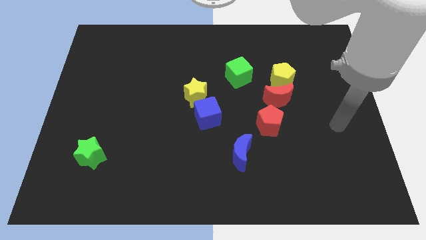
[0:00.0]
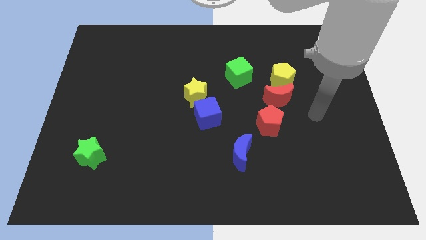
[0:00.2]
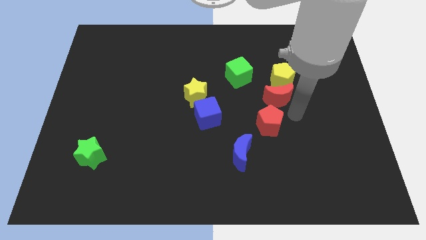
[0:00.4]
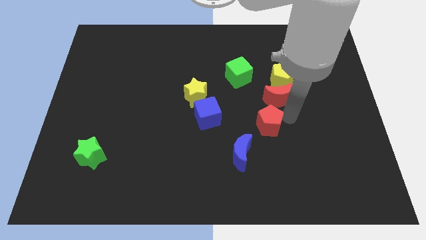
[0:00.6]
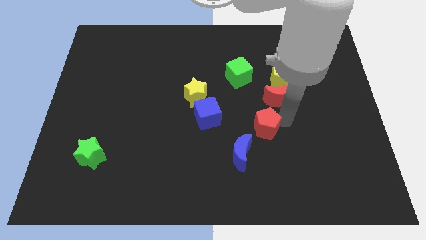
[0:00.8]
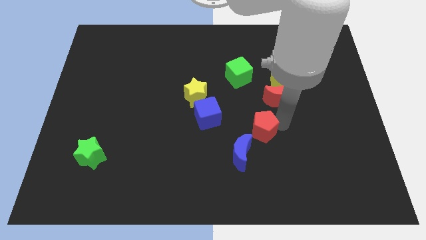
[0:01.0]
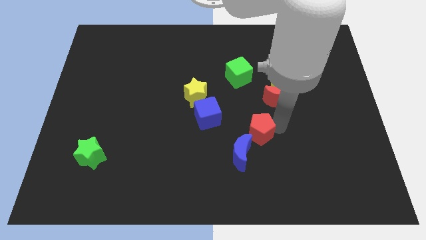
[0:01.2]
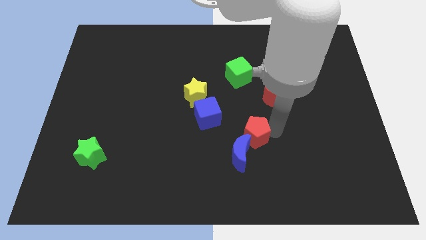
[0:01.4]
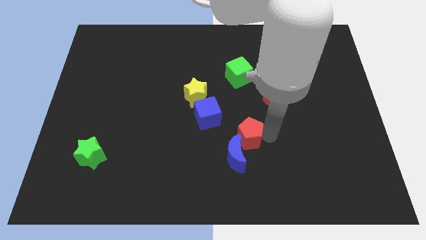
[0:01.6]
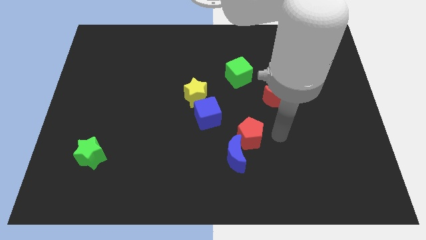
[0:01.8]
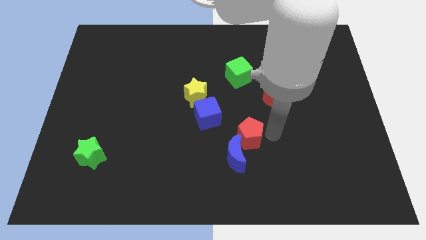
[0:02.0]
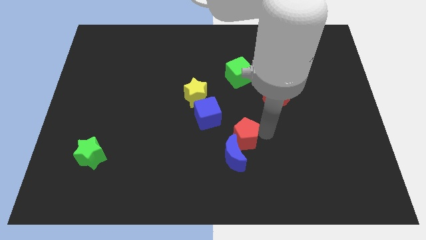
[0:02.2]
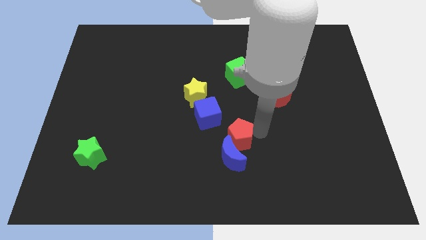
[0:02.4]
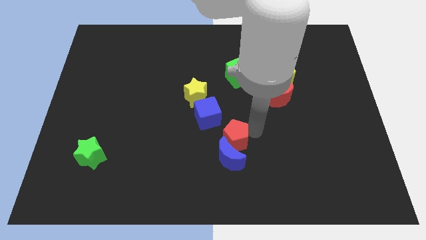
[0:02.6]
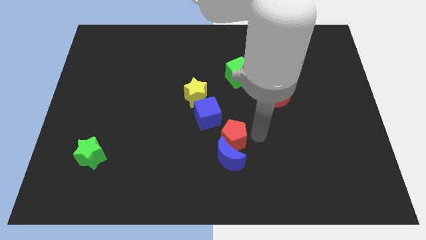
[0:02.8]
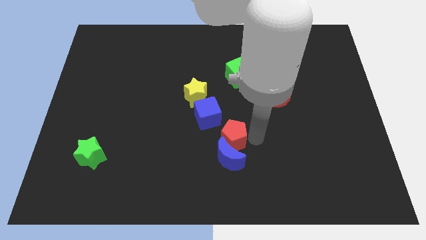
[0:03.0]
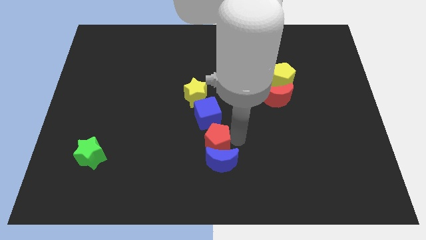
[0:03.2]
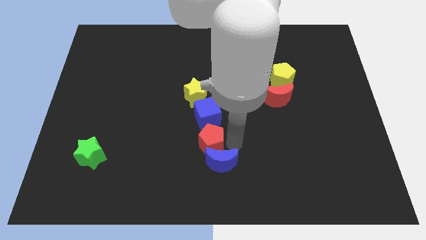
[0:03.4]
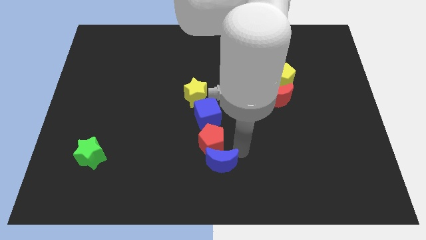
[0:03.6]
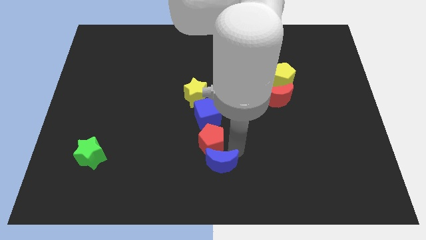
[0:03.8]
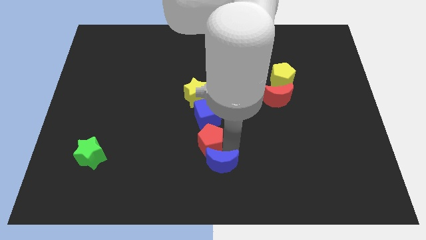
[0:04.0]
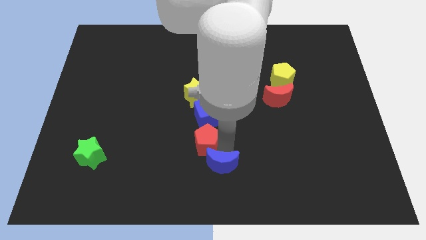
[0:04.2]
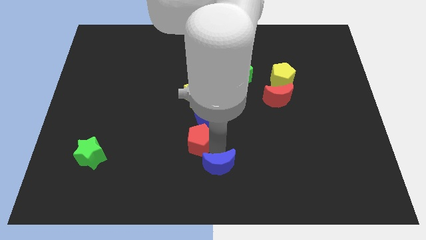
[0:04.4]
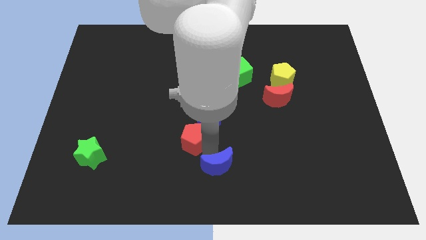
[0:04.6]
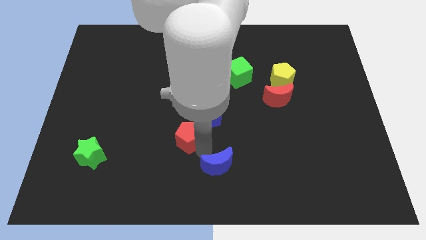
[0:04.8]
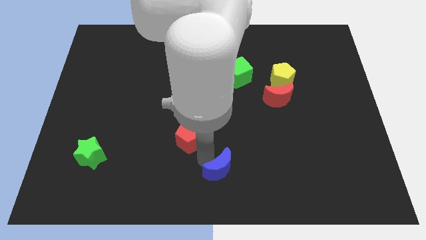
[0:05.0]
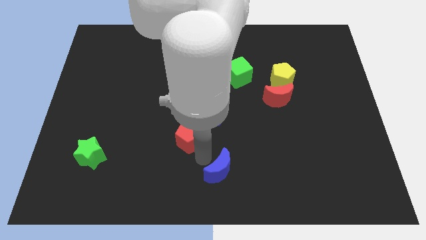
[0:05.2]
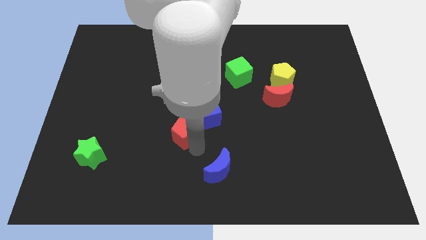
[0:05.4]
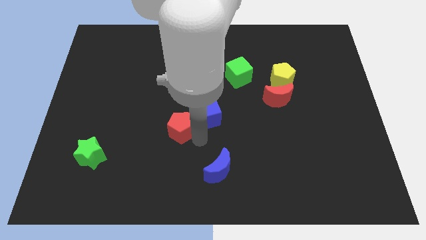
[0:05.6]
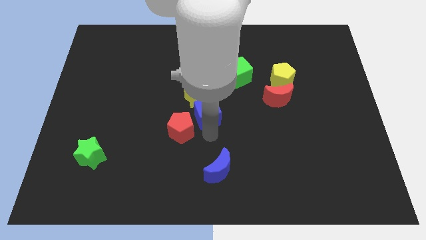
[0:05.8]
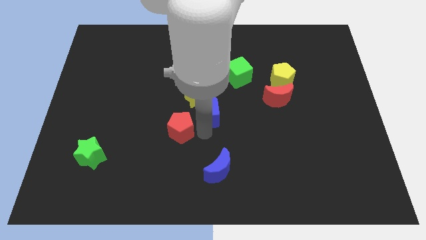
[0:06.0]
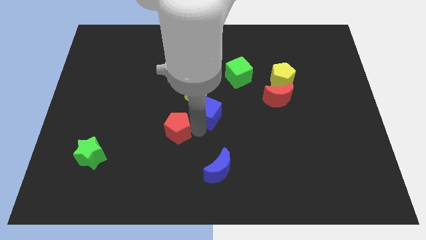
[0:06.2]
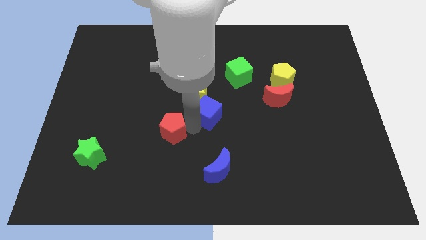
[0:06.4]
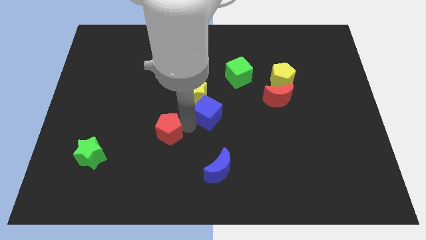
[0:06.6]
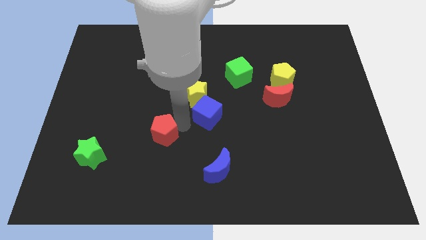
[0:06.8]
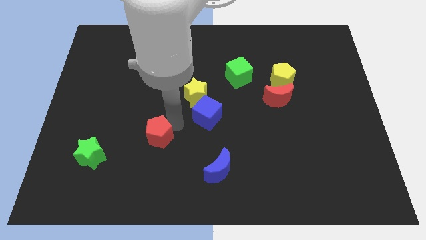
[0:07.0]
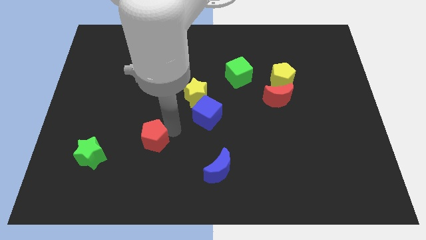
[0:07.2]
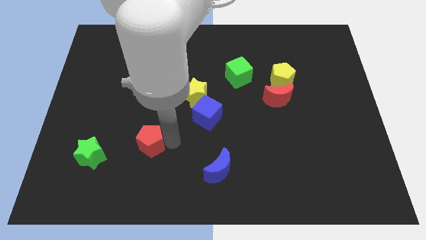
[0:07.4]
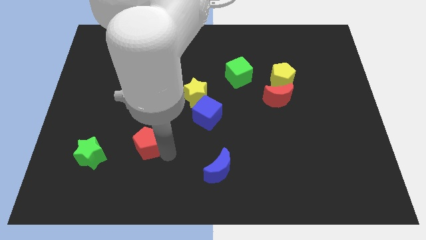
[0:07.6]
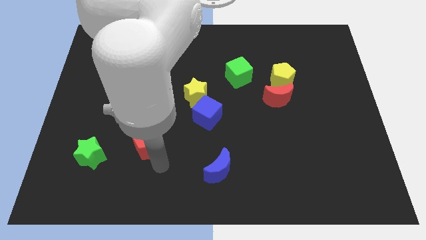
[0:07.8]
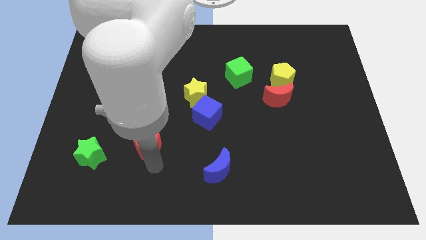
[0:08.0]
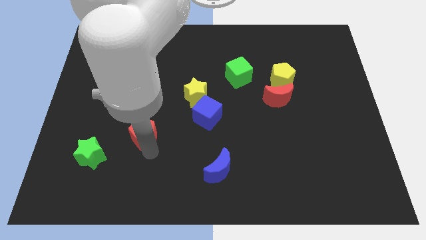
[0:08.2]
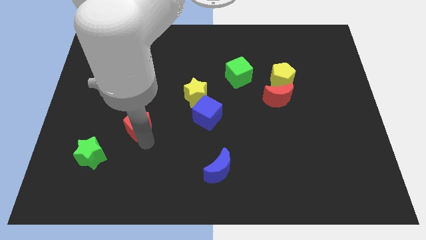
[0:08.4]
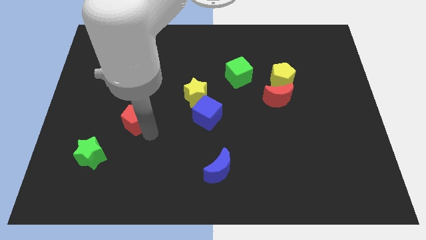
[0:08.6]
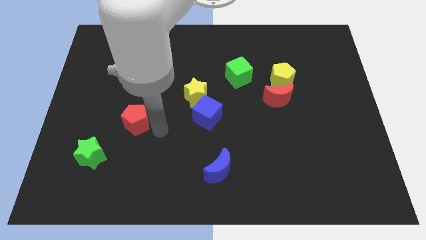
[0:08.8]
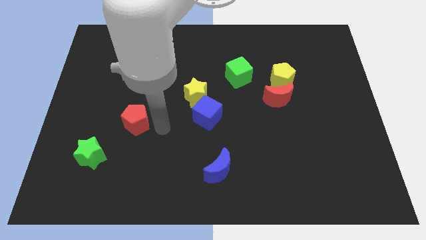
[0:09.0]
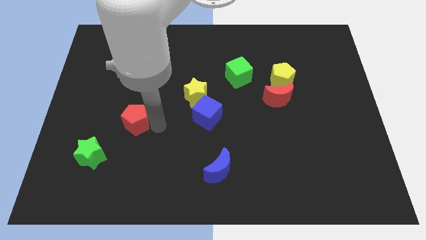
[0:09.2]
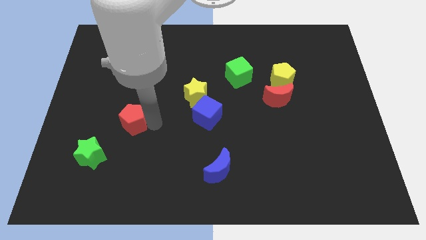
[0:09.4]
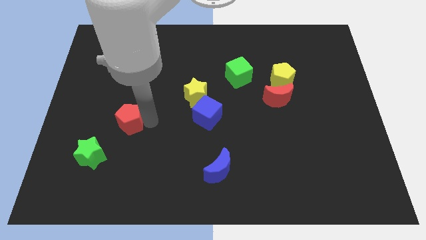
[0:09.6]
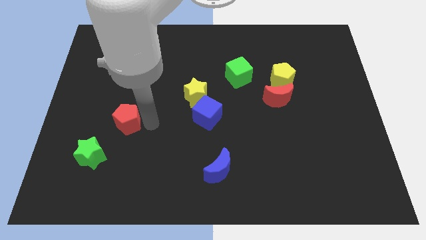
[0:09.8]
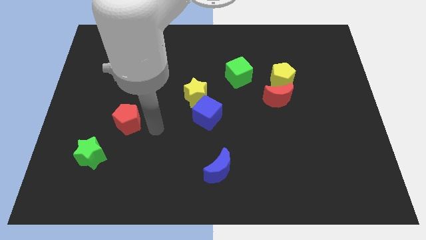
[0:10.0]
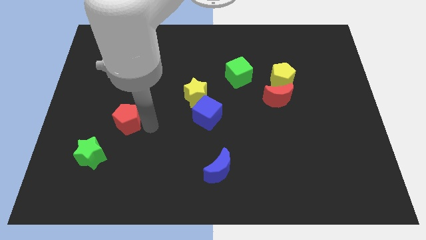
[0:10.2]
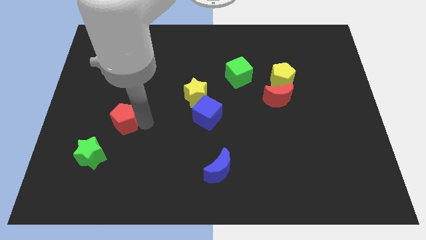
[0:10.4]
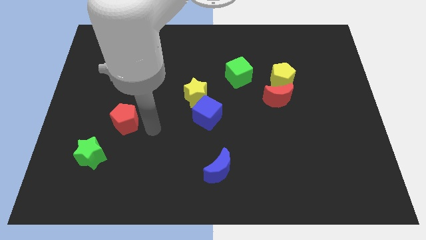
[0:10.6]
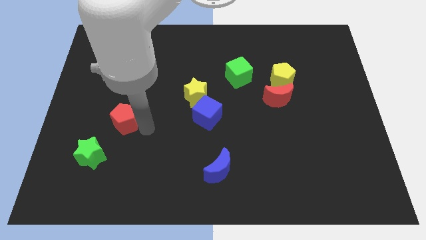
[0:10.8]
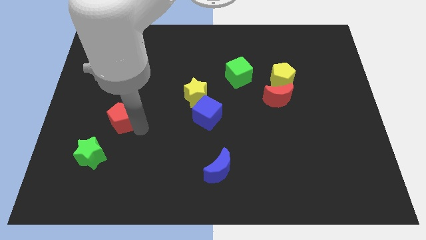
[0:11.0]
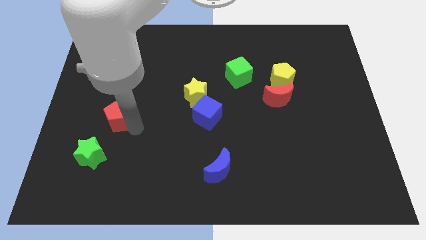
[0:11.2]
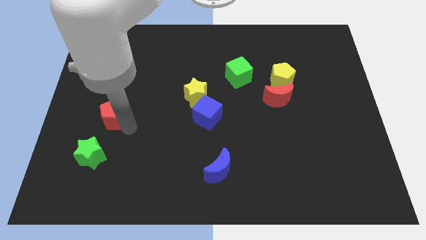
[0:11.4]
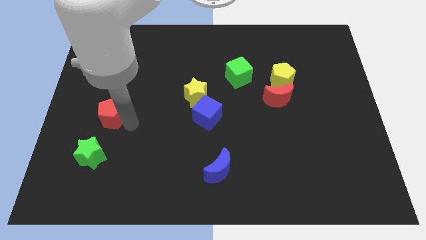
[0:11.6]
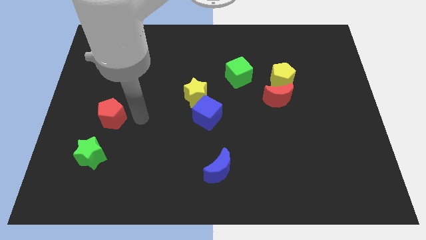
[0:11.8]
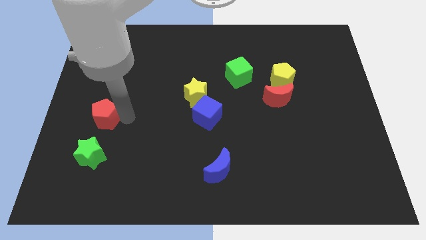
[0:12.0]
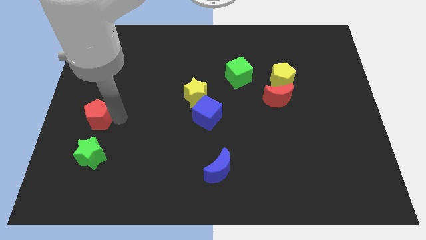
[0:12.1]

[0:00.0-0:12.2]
slide the red pentagon to the center left
